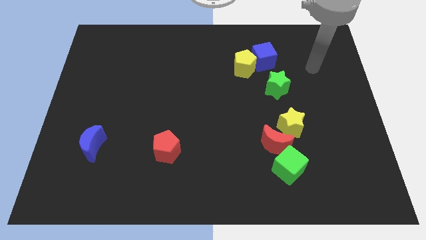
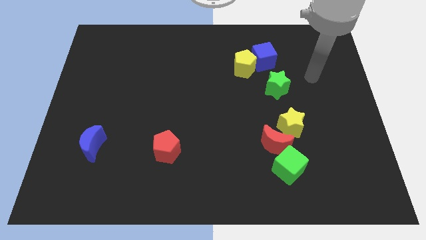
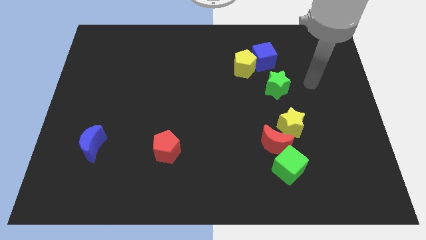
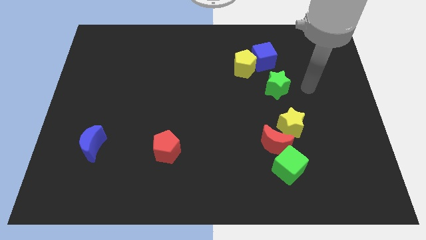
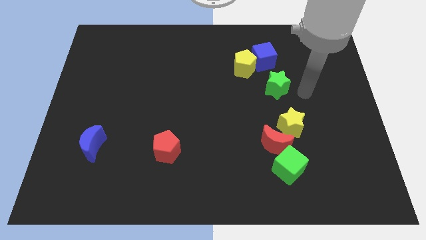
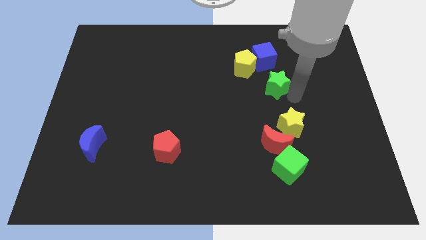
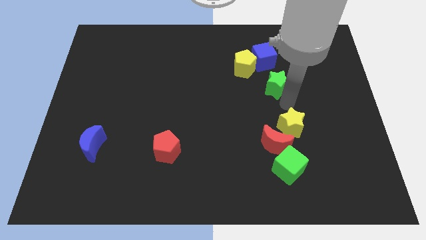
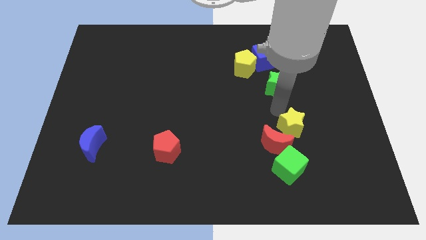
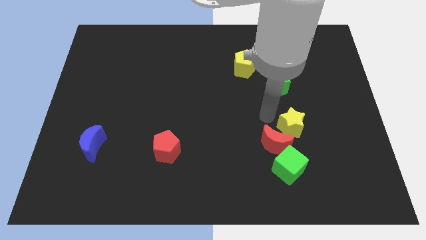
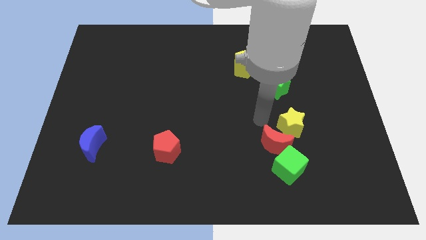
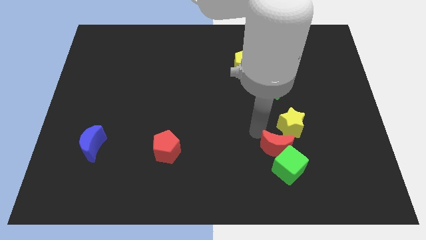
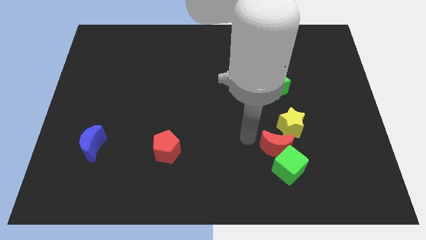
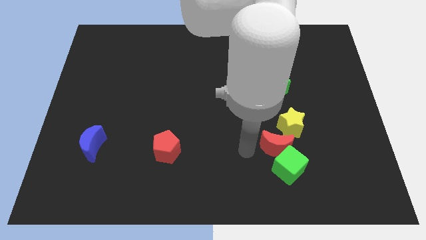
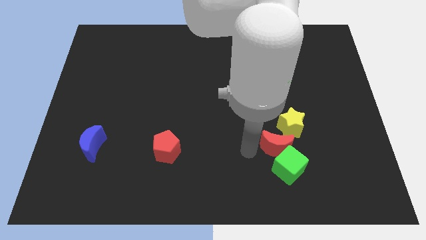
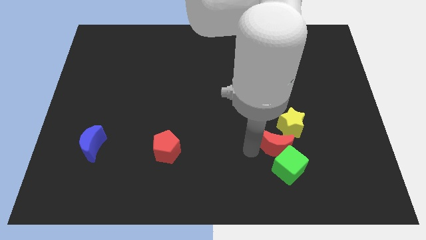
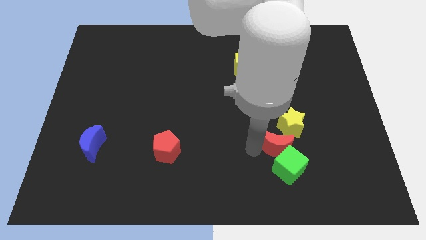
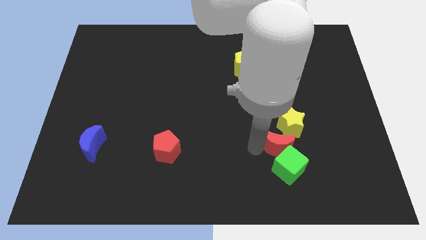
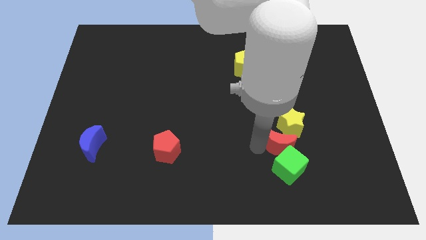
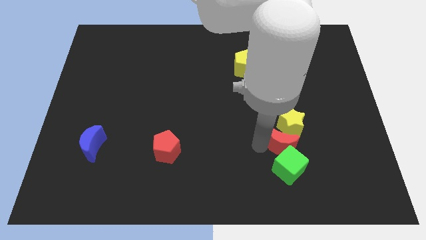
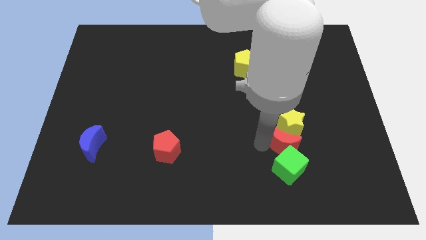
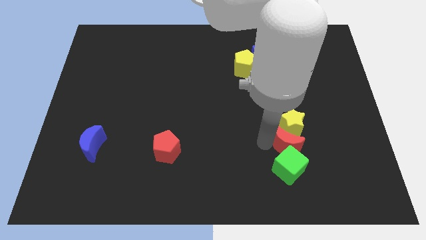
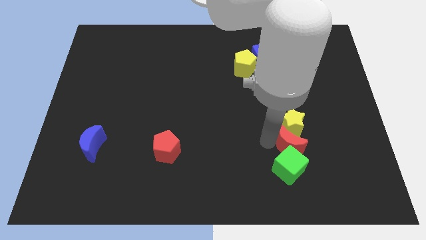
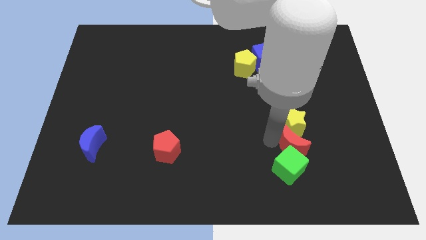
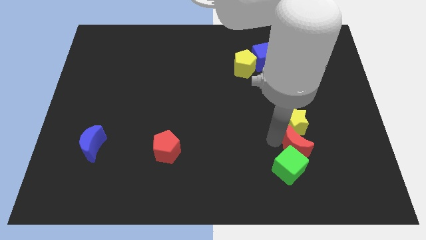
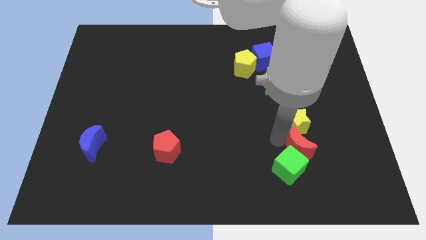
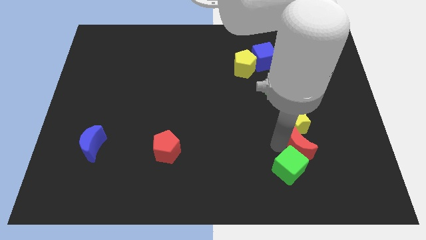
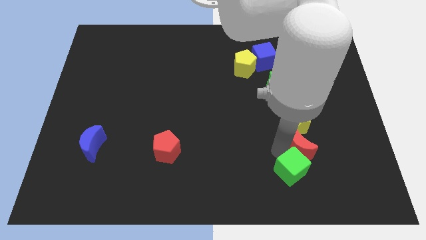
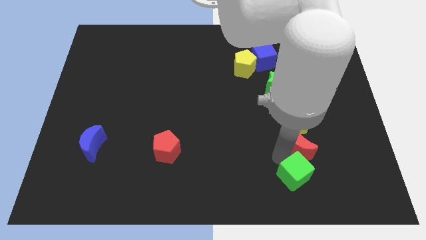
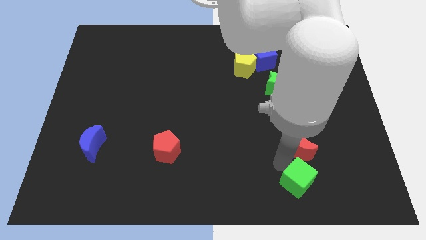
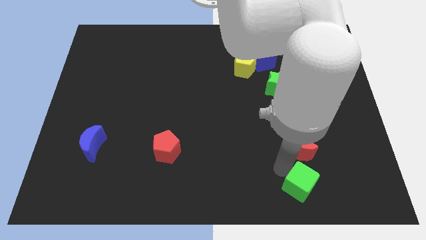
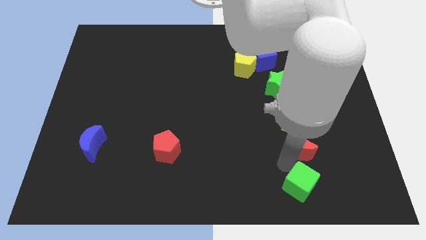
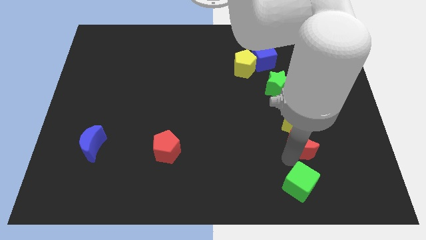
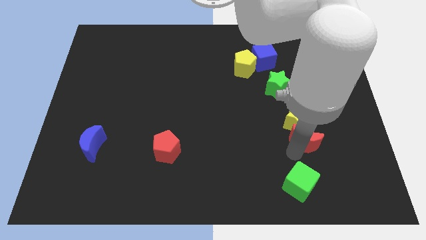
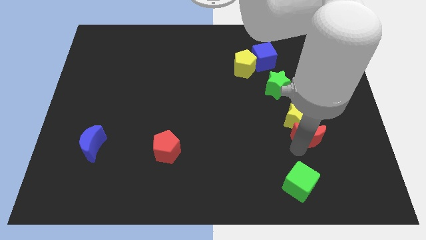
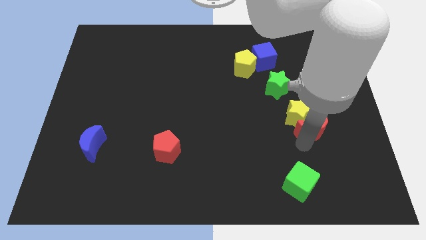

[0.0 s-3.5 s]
push the red moon a little bit diagonally up and right

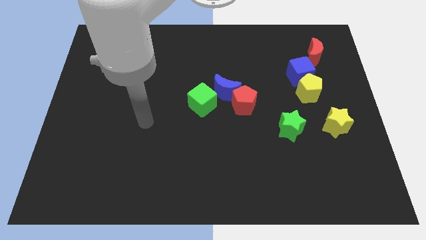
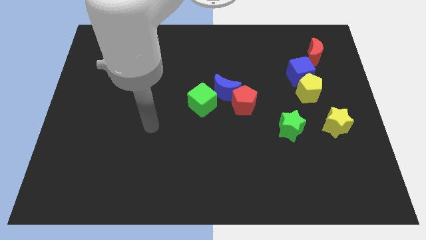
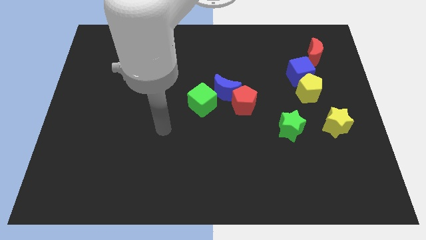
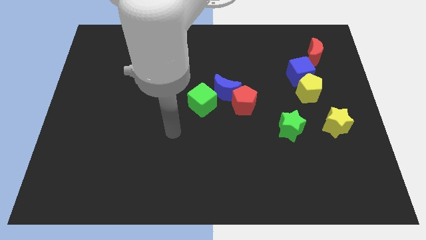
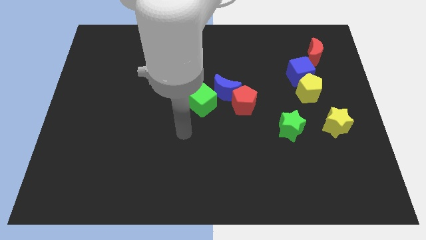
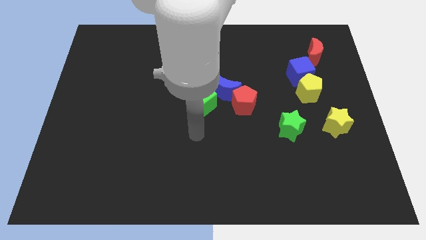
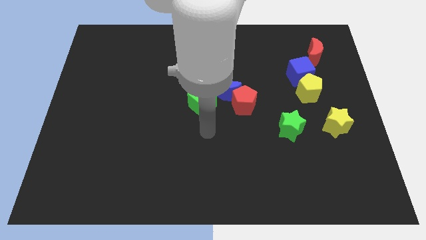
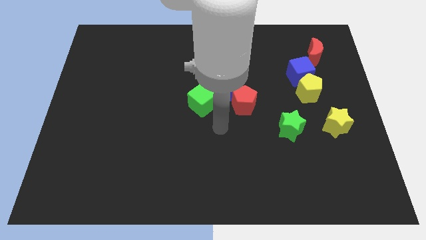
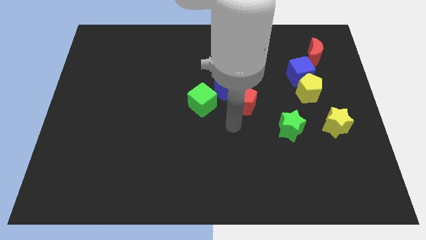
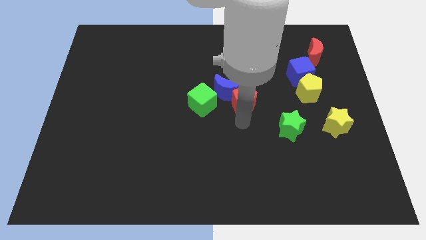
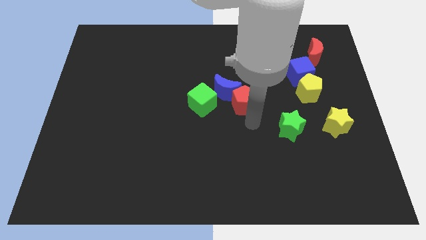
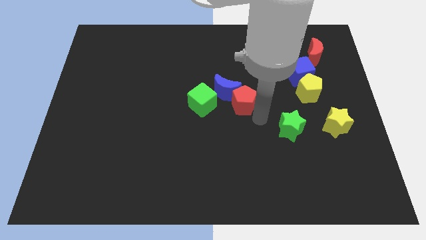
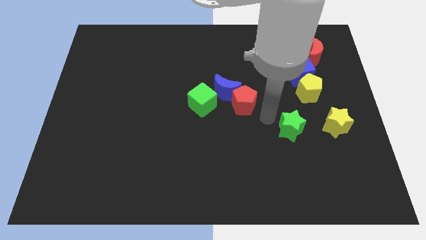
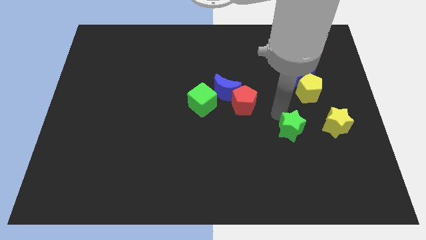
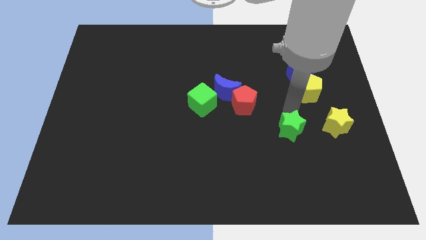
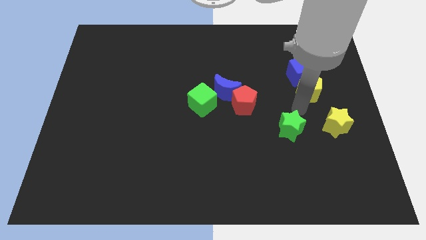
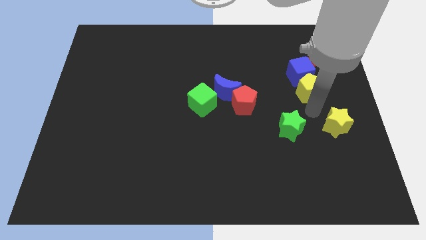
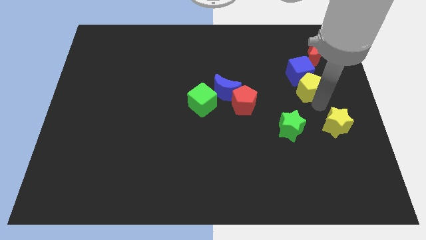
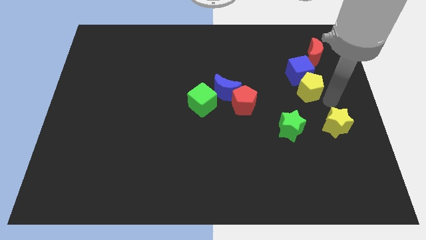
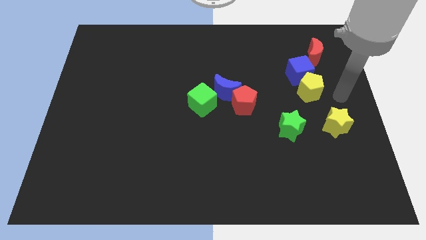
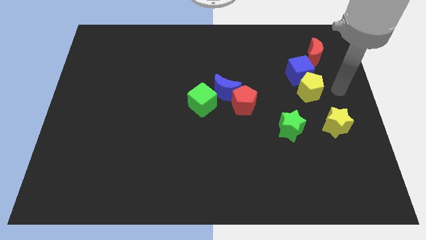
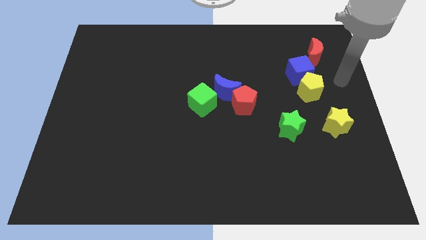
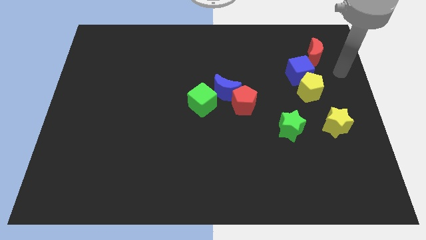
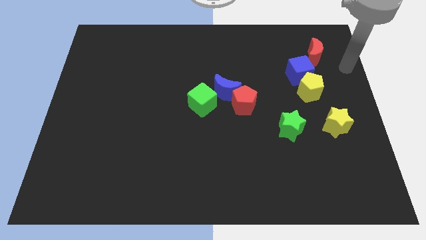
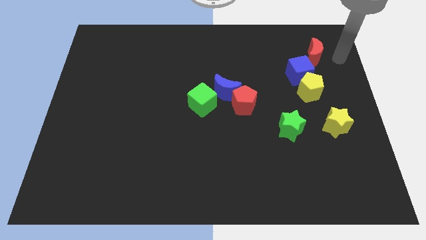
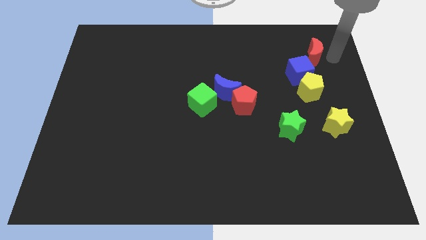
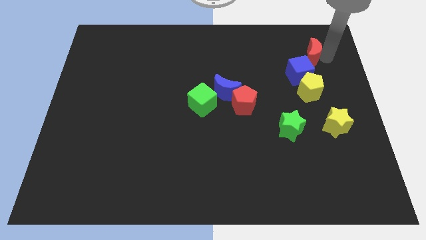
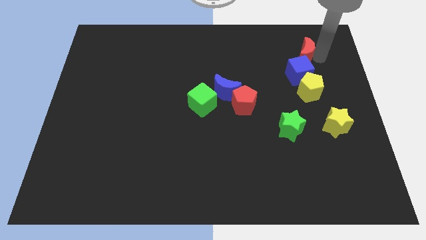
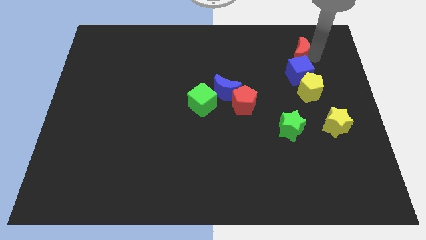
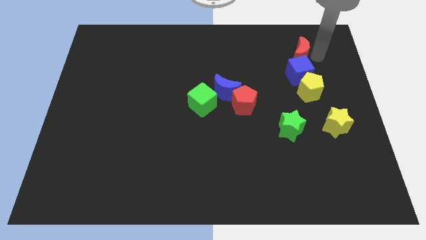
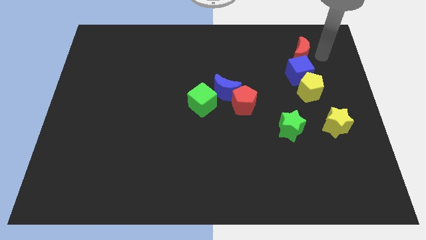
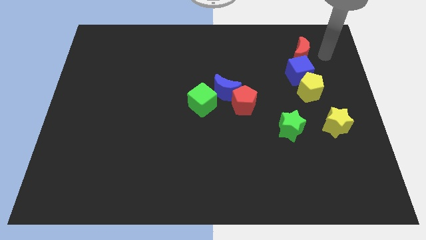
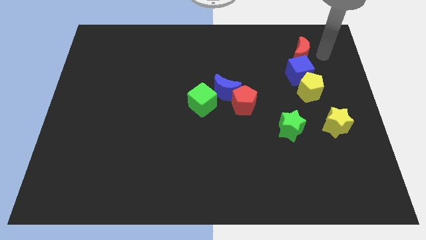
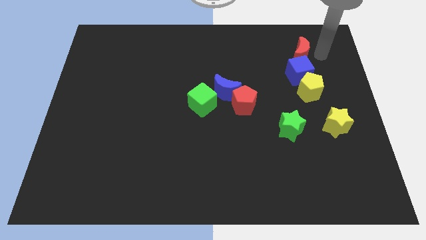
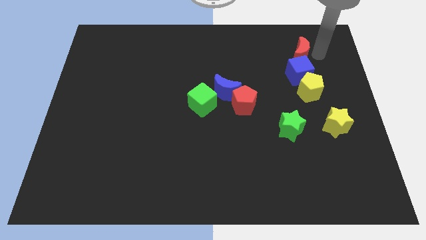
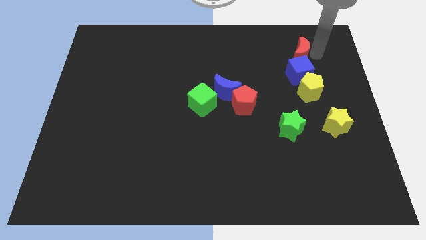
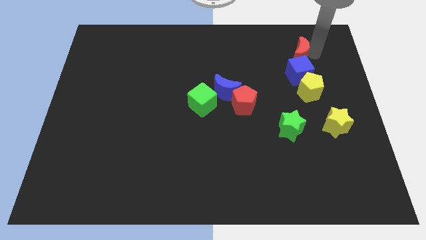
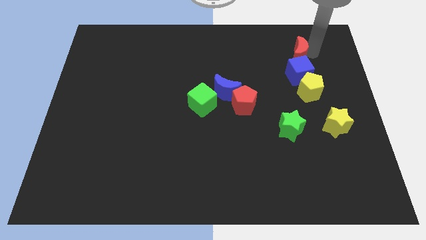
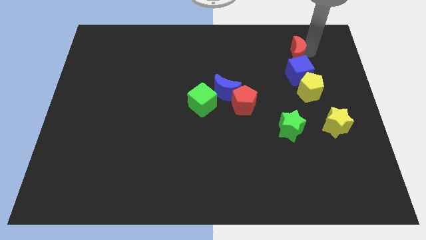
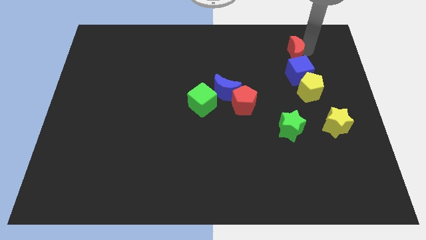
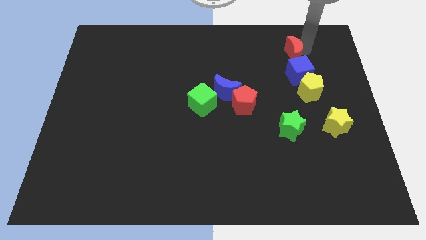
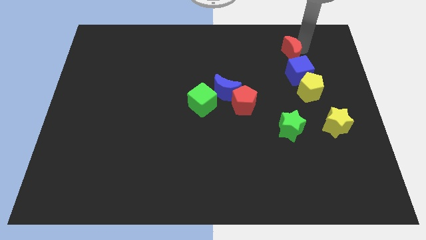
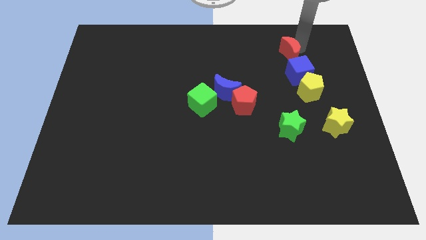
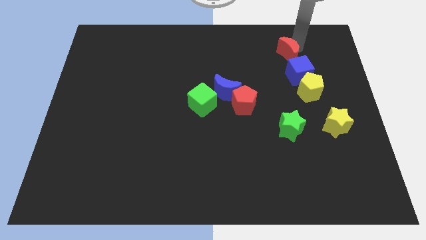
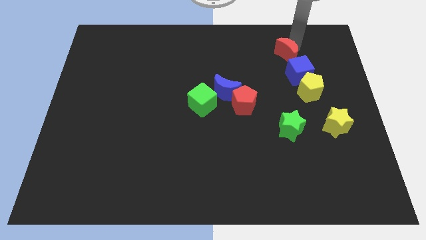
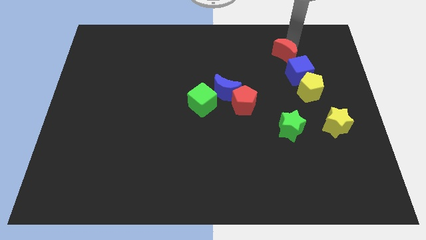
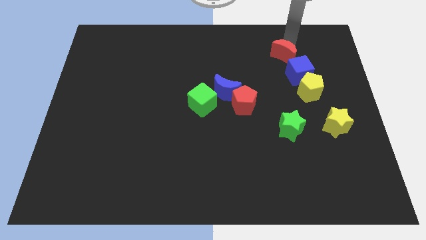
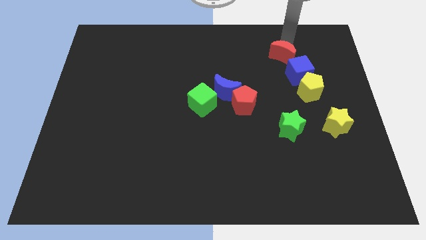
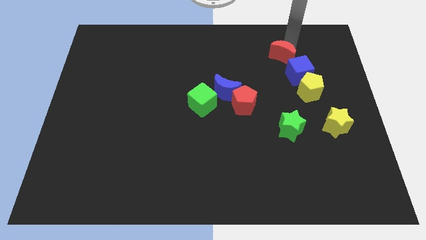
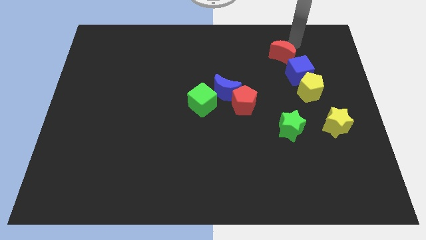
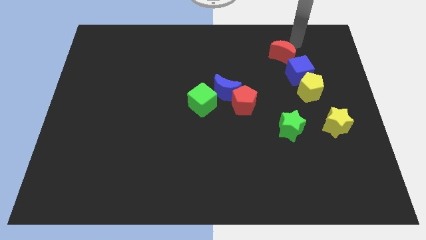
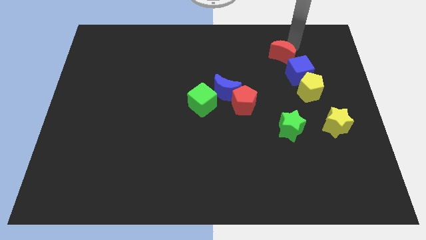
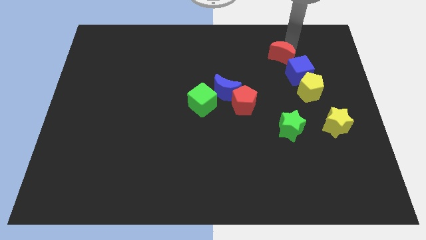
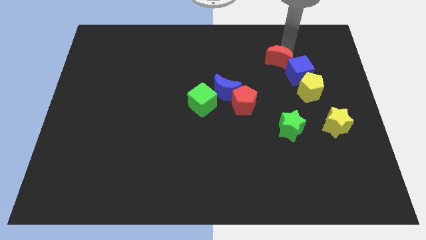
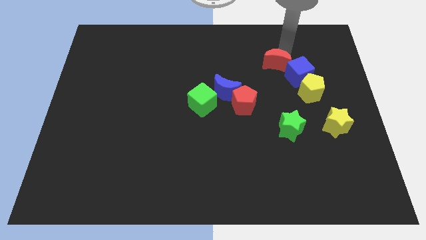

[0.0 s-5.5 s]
move the red moon a little bit downwards and left
